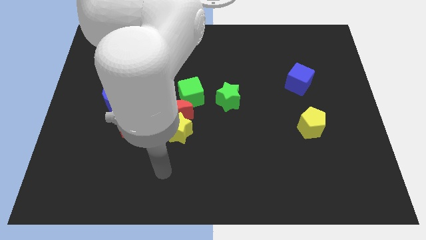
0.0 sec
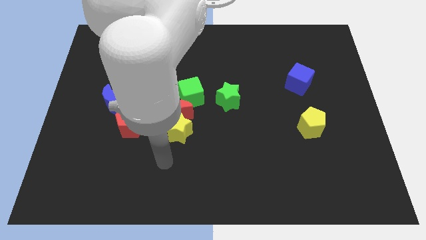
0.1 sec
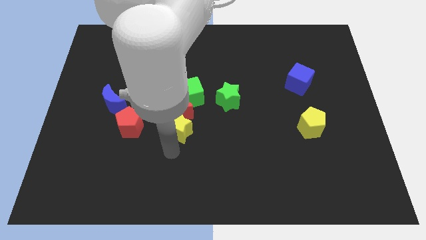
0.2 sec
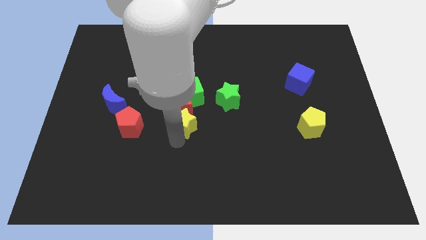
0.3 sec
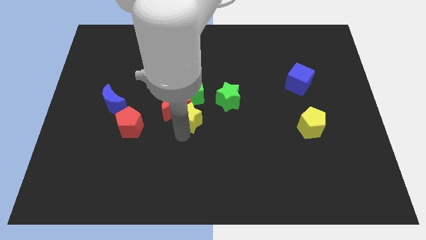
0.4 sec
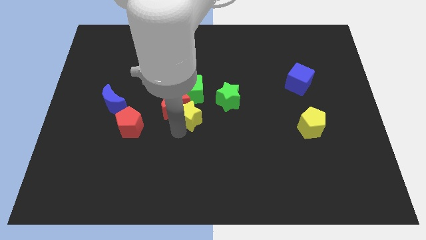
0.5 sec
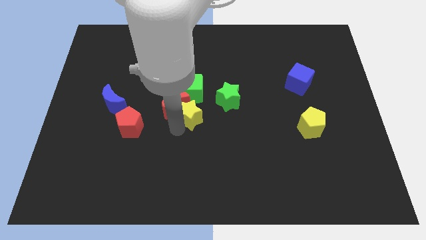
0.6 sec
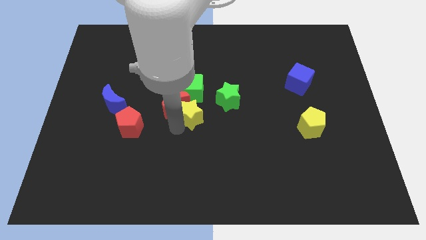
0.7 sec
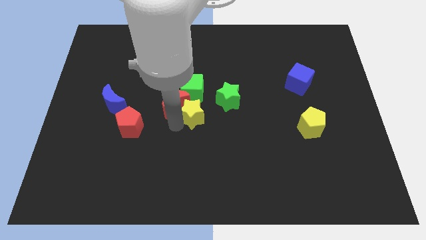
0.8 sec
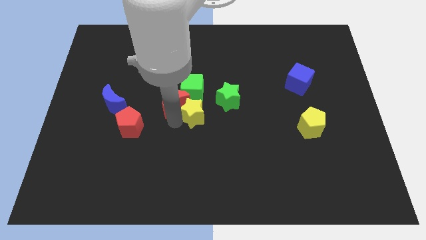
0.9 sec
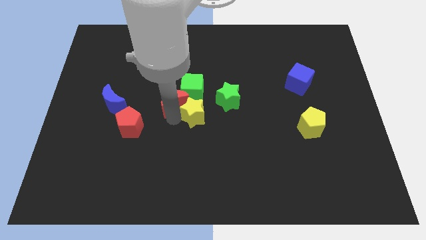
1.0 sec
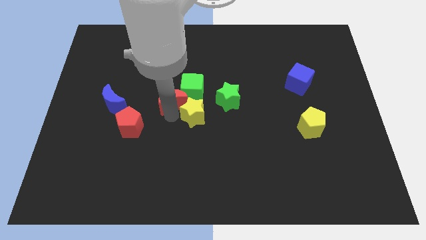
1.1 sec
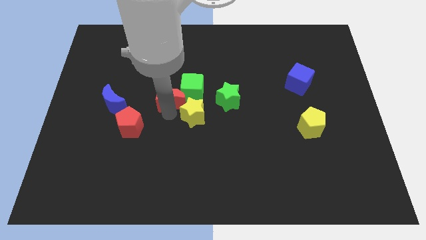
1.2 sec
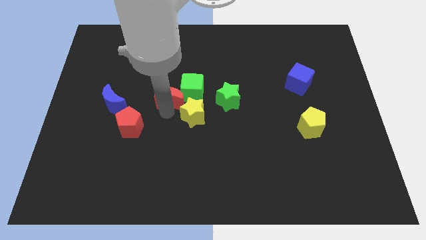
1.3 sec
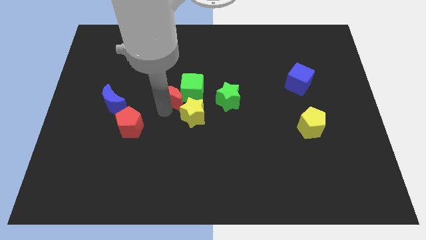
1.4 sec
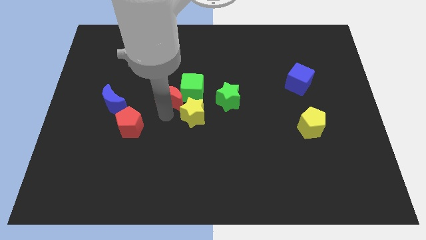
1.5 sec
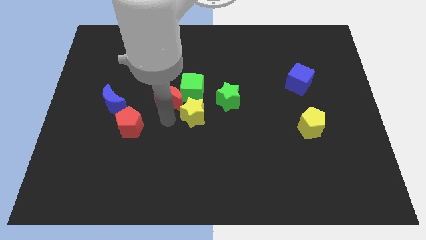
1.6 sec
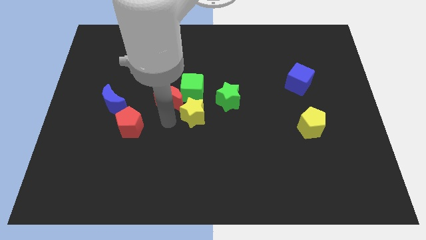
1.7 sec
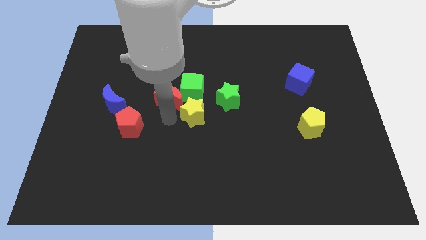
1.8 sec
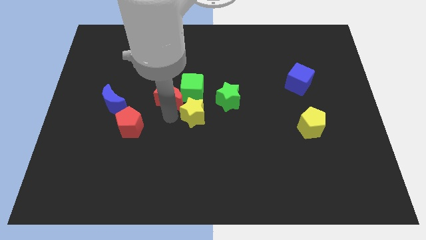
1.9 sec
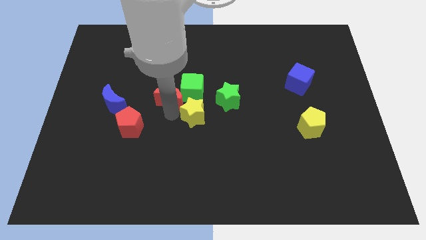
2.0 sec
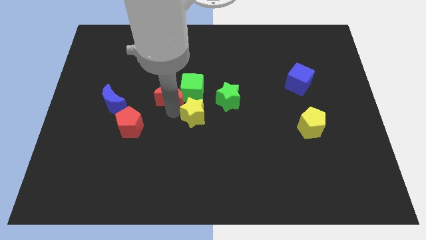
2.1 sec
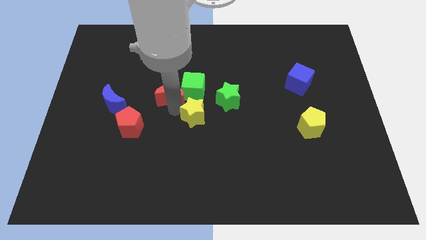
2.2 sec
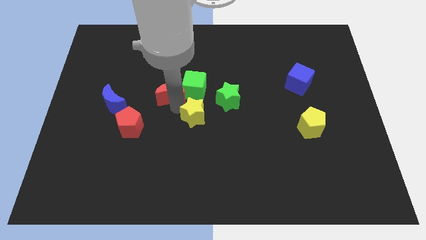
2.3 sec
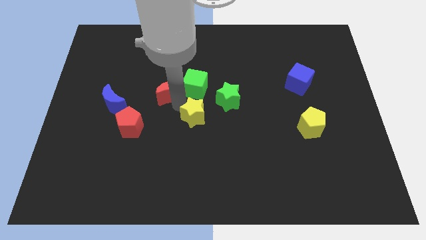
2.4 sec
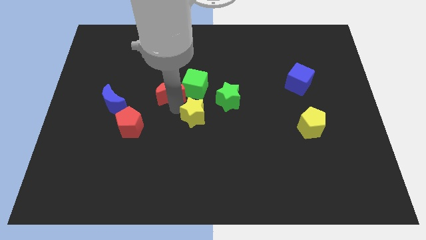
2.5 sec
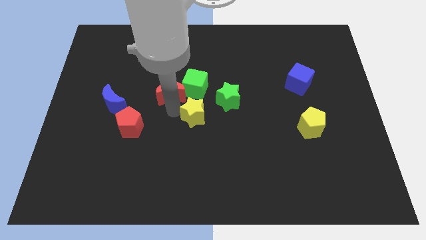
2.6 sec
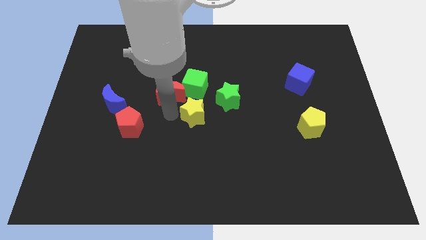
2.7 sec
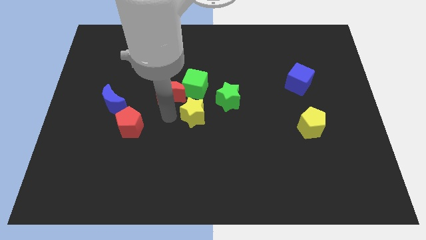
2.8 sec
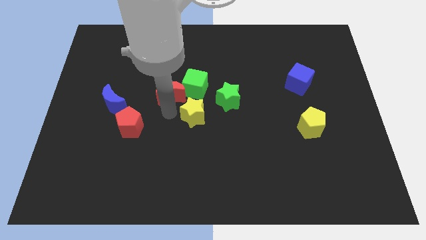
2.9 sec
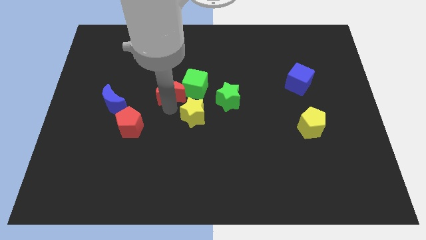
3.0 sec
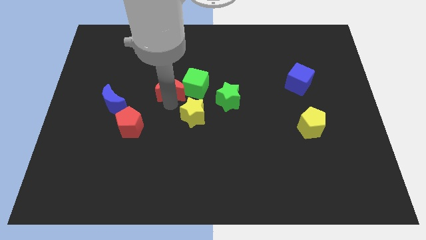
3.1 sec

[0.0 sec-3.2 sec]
push the red moon somewhat up

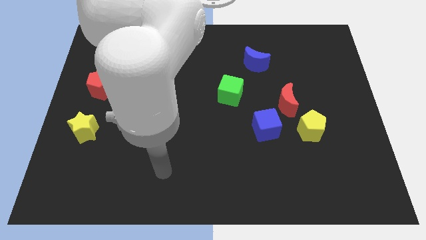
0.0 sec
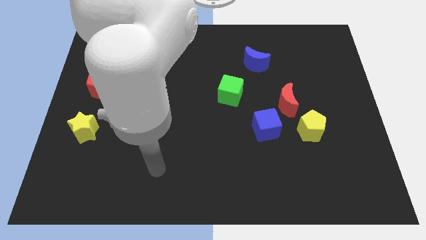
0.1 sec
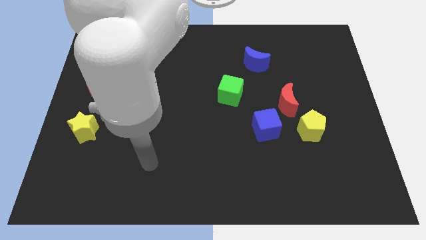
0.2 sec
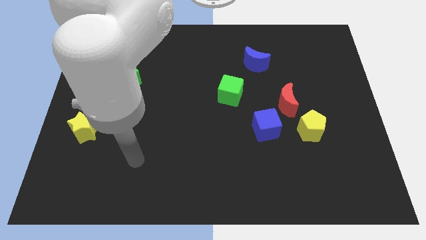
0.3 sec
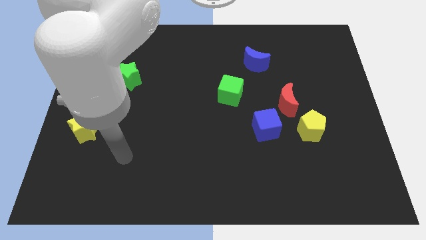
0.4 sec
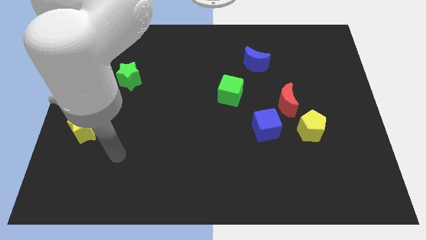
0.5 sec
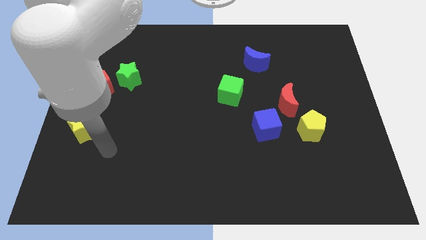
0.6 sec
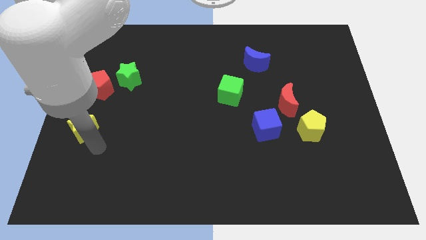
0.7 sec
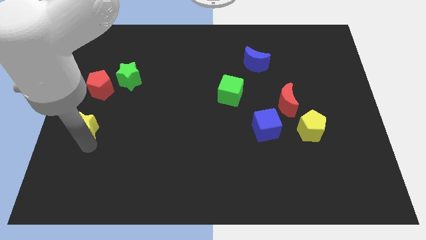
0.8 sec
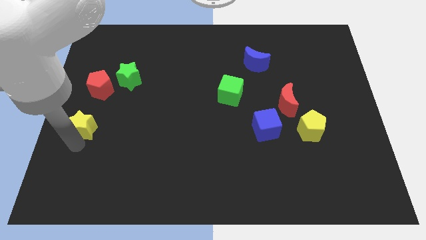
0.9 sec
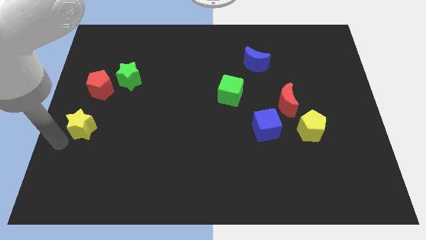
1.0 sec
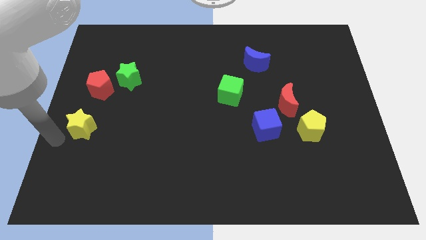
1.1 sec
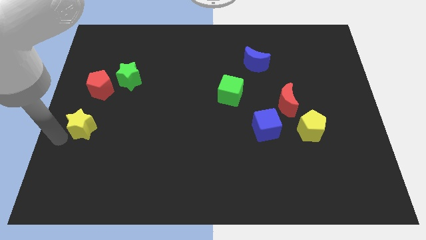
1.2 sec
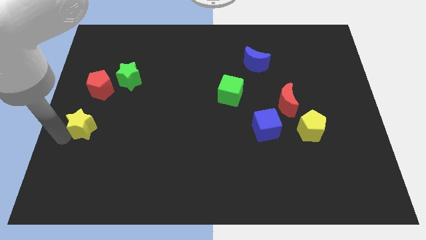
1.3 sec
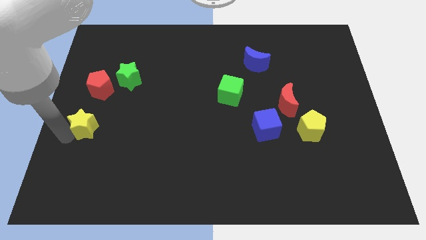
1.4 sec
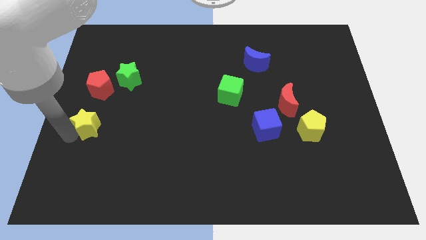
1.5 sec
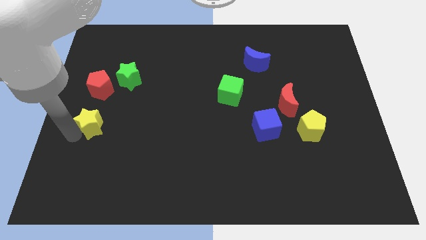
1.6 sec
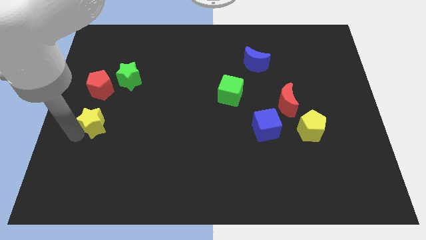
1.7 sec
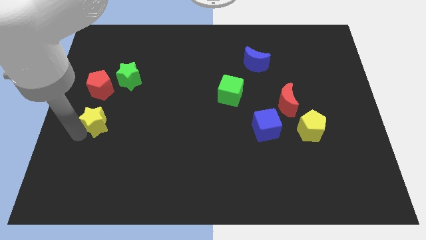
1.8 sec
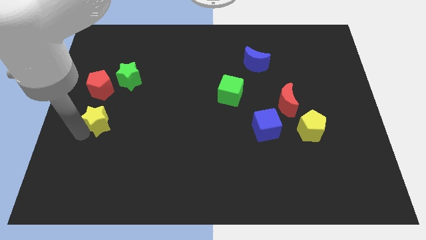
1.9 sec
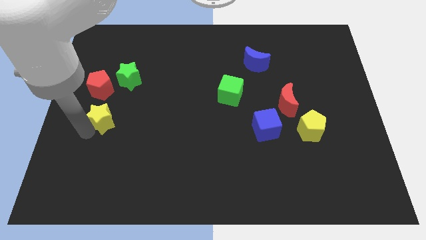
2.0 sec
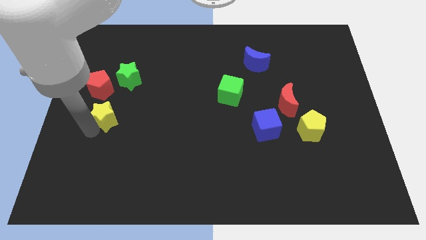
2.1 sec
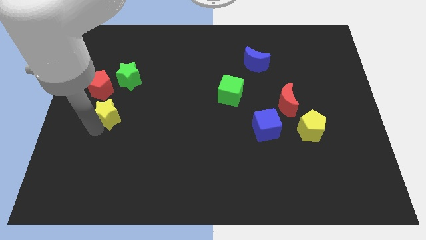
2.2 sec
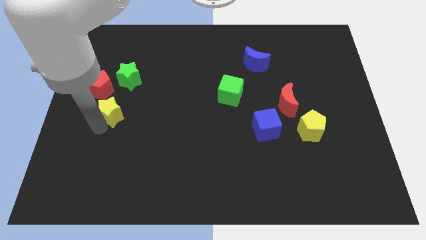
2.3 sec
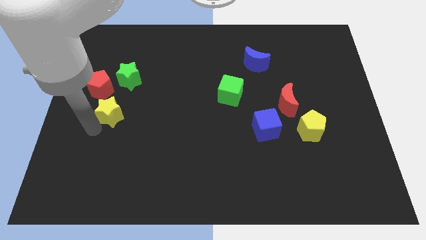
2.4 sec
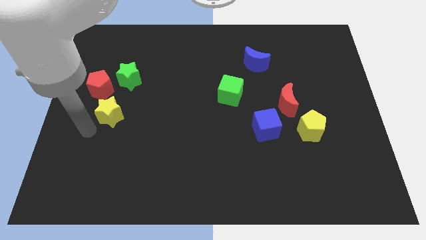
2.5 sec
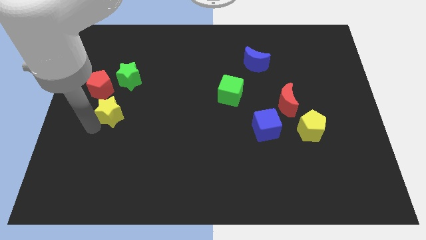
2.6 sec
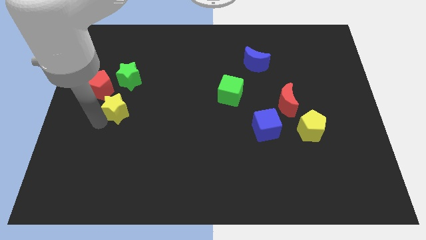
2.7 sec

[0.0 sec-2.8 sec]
slightly slide the yellow star upwards and then right

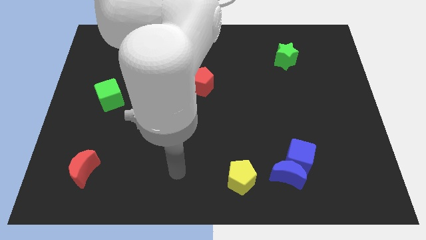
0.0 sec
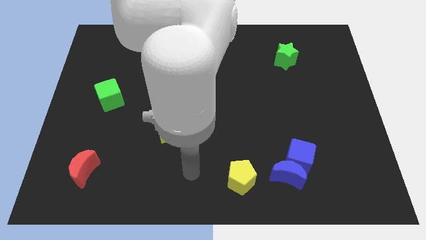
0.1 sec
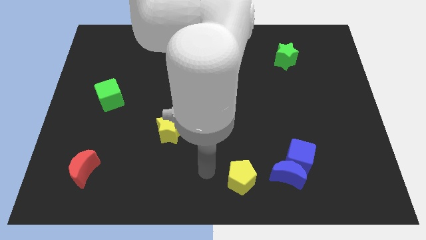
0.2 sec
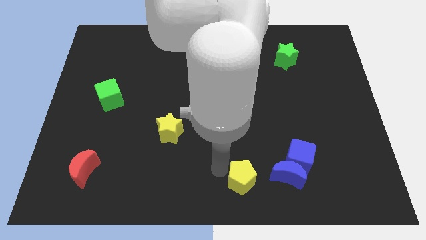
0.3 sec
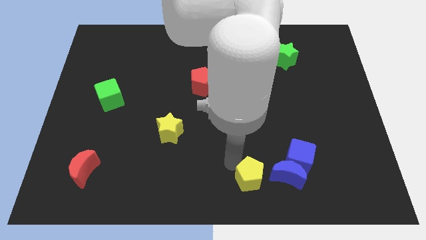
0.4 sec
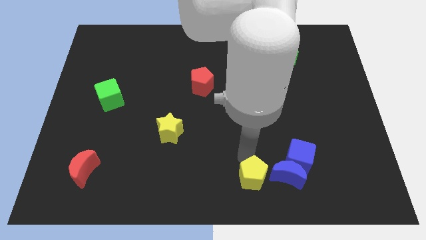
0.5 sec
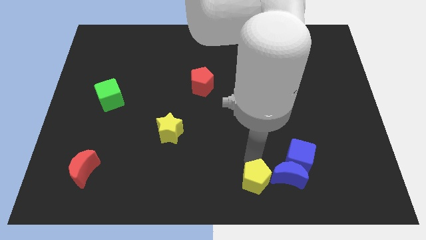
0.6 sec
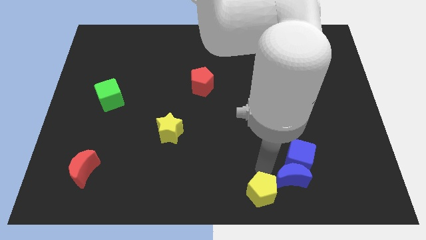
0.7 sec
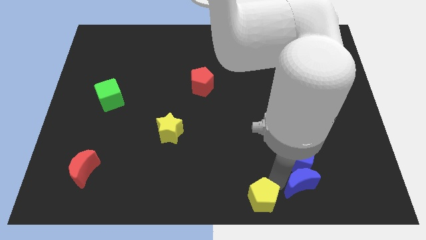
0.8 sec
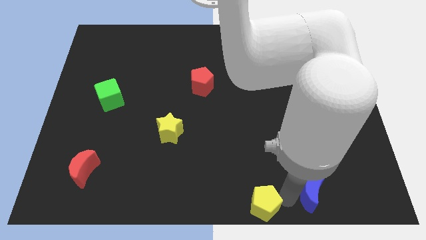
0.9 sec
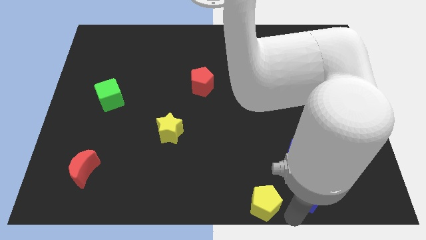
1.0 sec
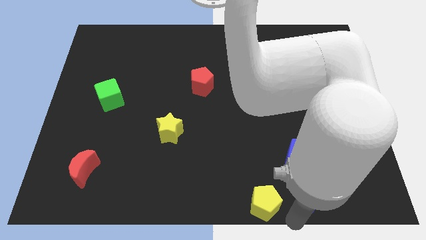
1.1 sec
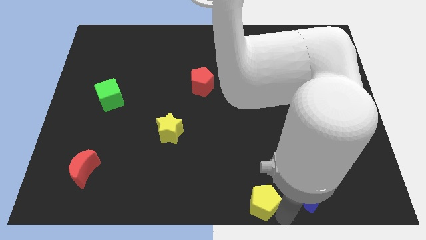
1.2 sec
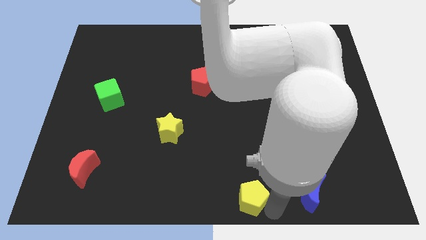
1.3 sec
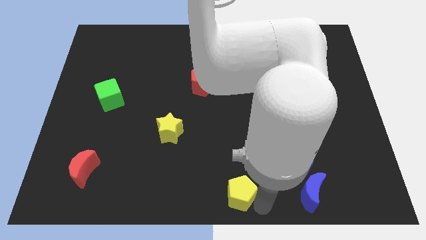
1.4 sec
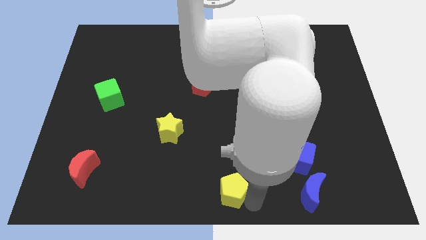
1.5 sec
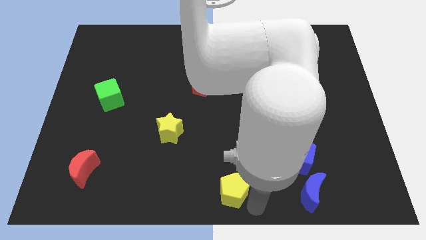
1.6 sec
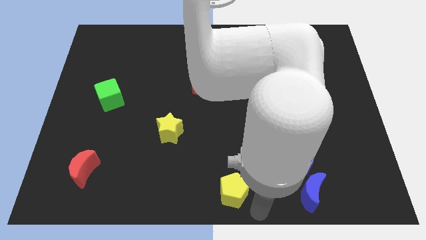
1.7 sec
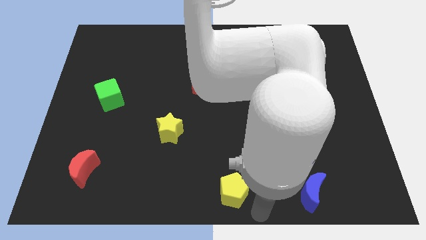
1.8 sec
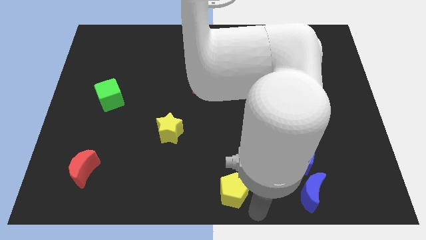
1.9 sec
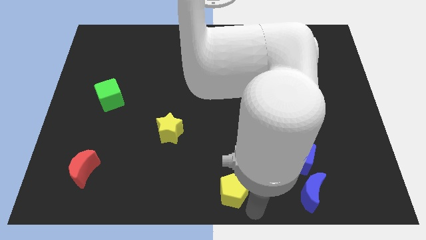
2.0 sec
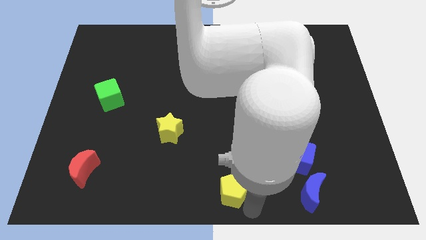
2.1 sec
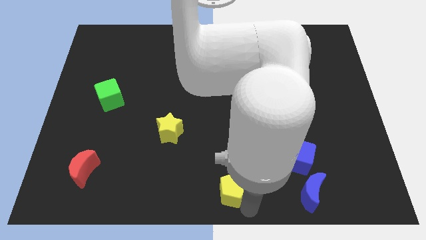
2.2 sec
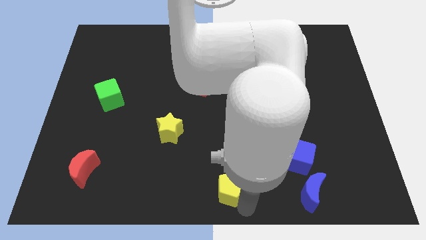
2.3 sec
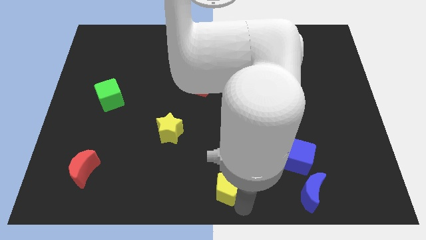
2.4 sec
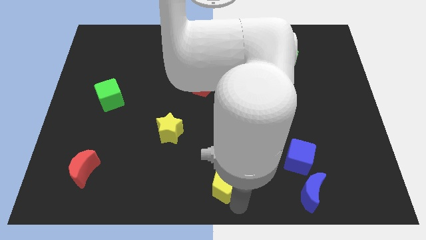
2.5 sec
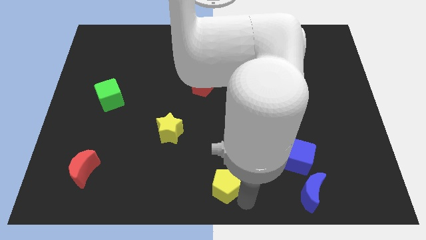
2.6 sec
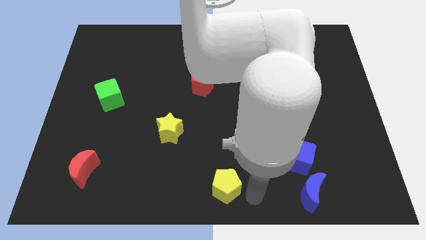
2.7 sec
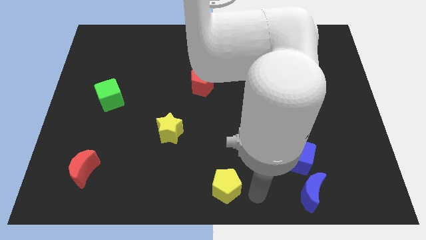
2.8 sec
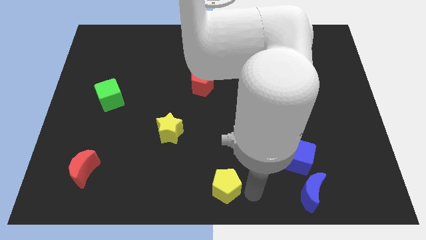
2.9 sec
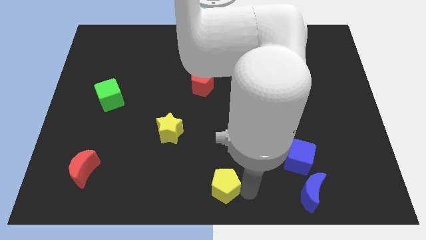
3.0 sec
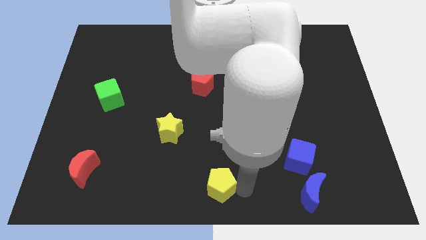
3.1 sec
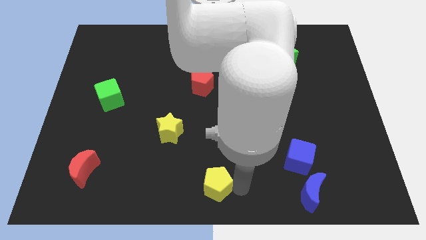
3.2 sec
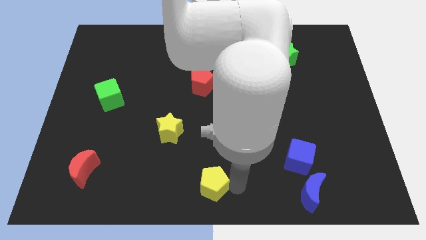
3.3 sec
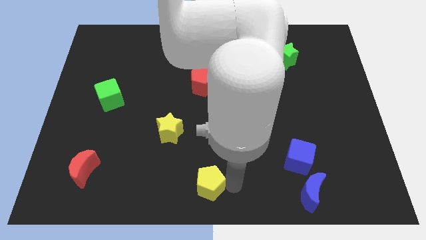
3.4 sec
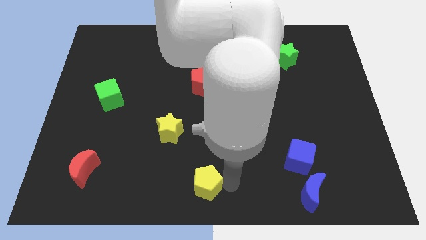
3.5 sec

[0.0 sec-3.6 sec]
slide the yellow pentagon slightly left
